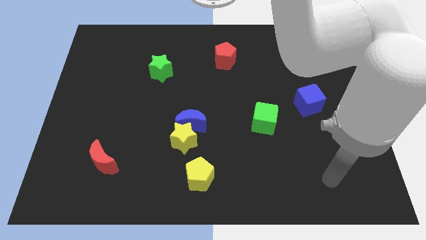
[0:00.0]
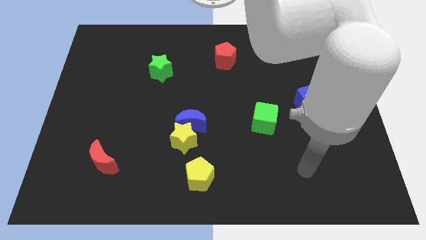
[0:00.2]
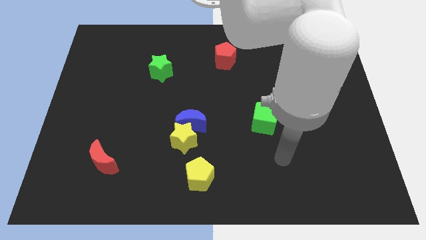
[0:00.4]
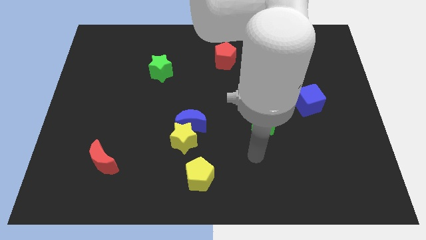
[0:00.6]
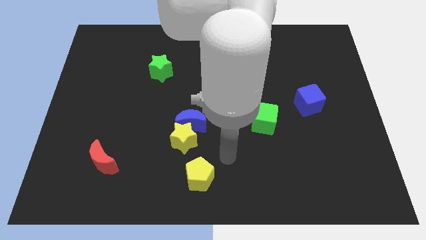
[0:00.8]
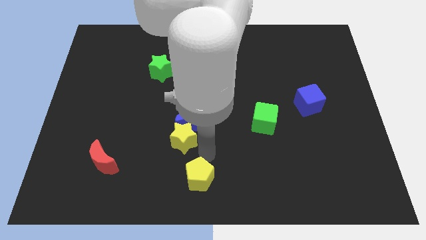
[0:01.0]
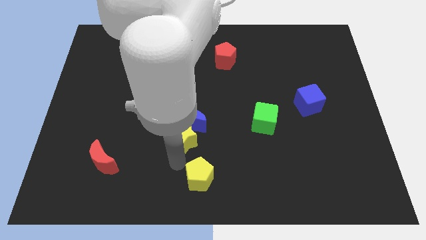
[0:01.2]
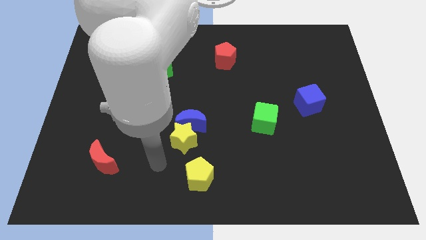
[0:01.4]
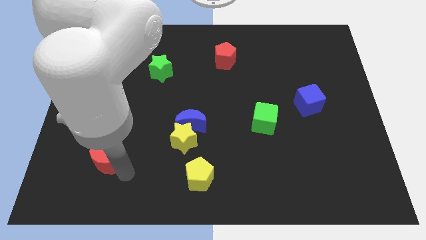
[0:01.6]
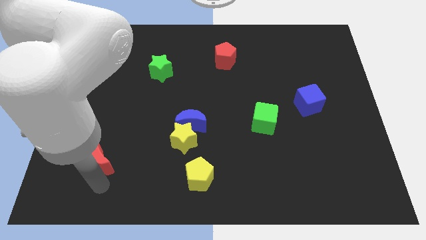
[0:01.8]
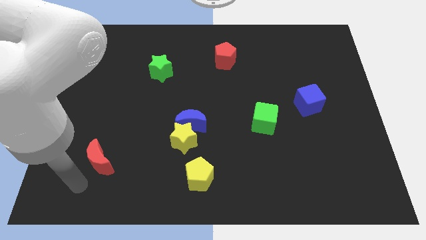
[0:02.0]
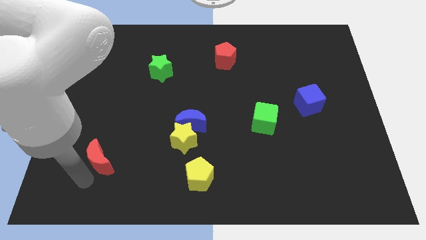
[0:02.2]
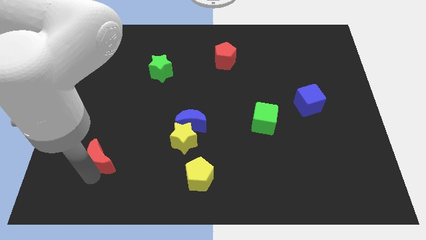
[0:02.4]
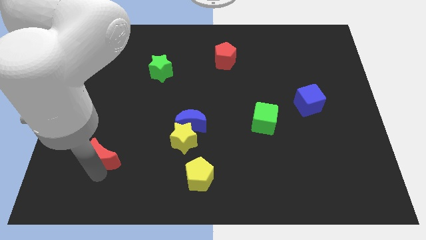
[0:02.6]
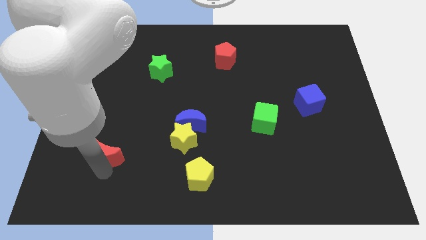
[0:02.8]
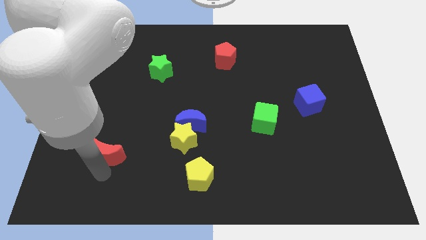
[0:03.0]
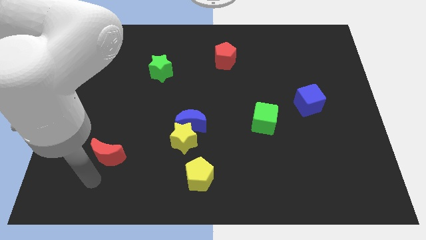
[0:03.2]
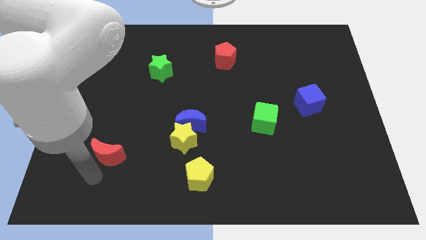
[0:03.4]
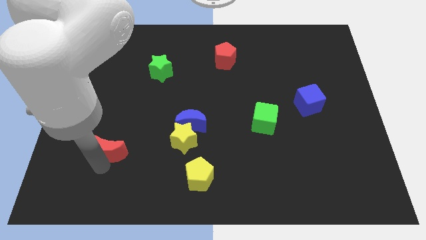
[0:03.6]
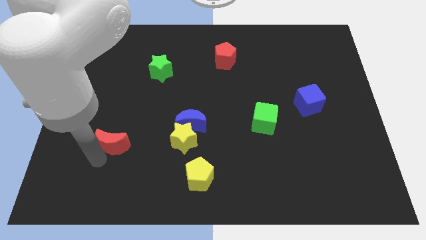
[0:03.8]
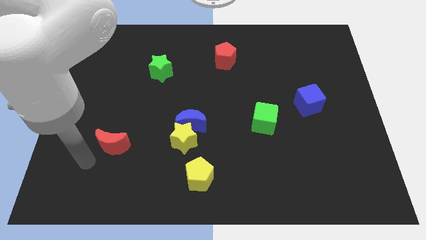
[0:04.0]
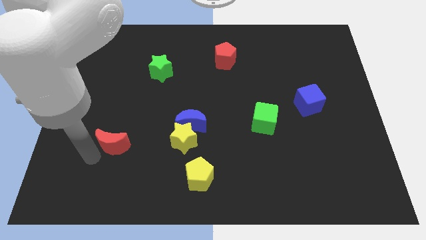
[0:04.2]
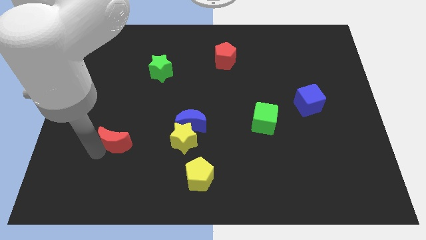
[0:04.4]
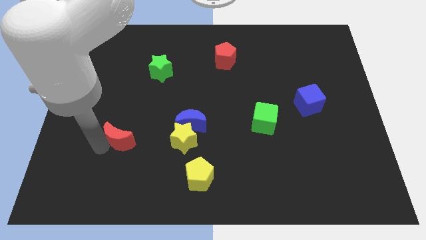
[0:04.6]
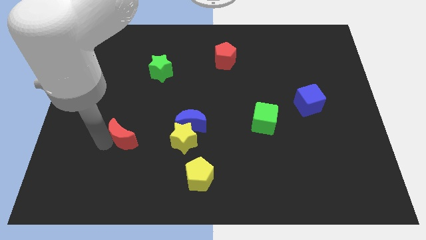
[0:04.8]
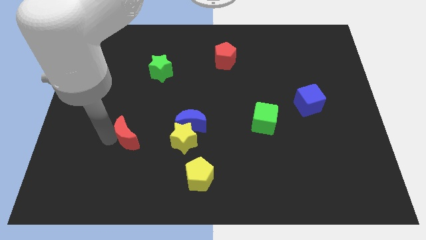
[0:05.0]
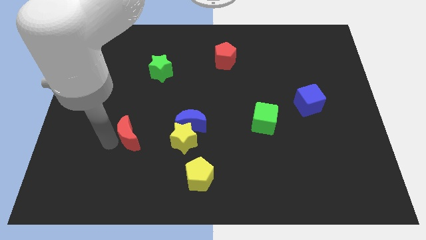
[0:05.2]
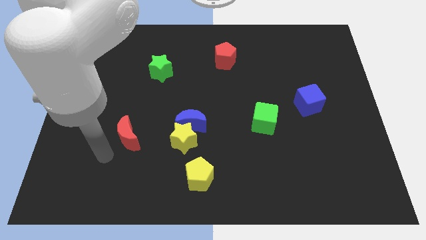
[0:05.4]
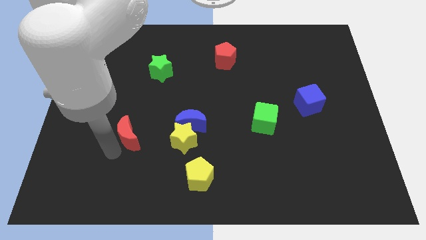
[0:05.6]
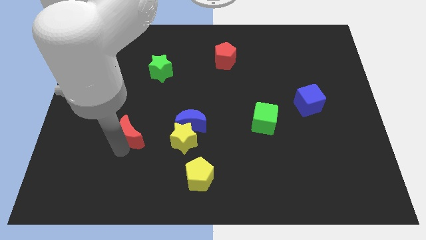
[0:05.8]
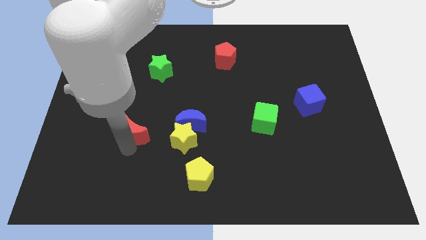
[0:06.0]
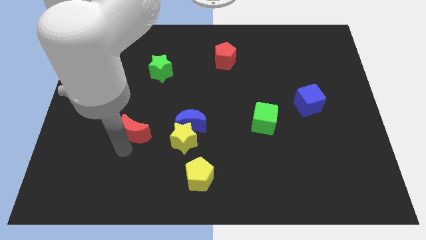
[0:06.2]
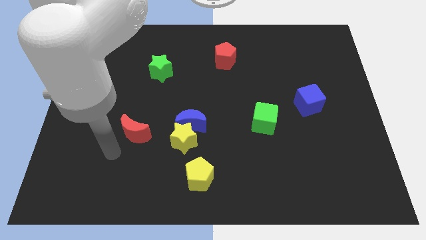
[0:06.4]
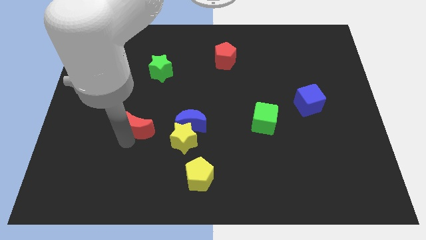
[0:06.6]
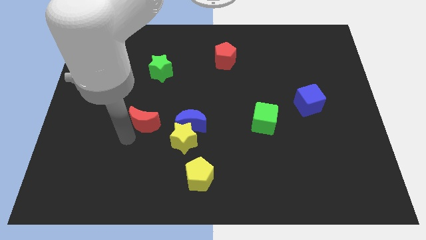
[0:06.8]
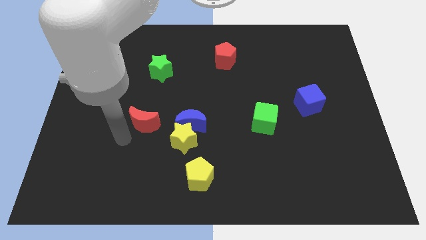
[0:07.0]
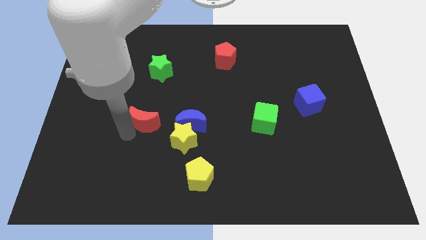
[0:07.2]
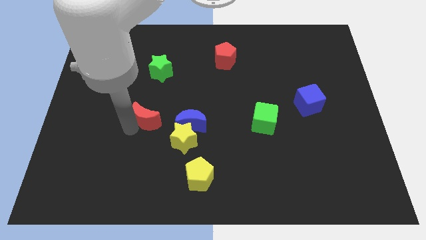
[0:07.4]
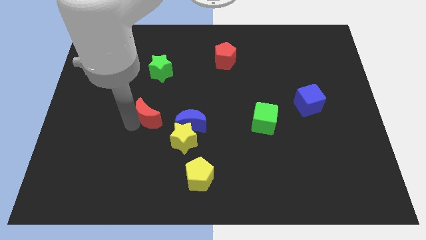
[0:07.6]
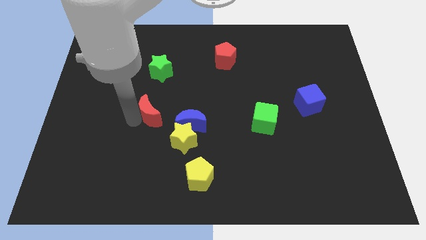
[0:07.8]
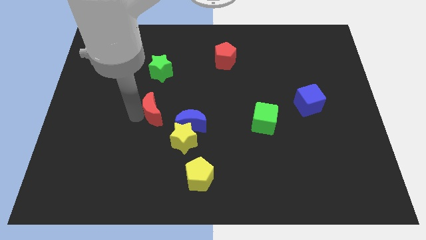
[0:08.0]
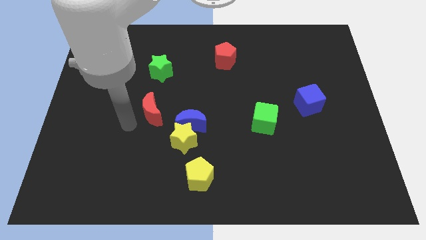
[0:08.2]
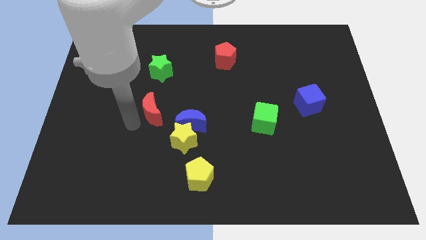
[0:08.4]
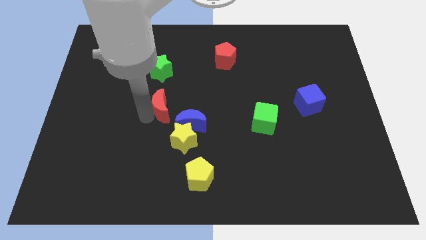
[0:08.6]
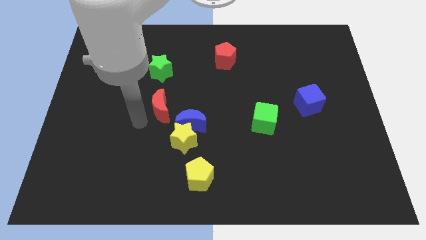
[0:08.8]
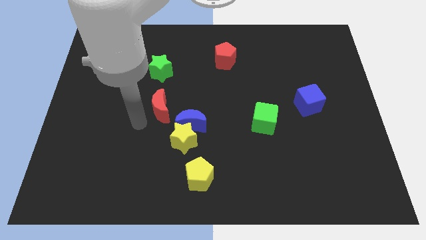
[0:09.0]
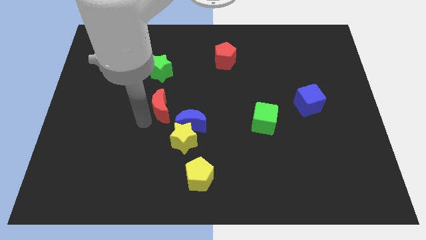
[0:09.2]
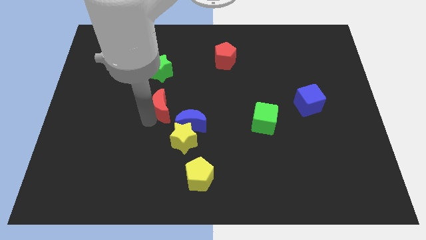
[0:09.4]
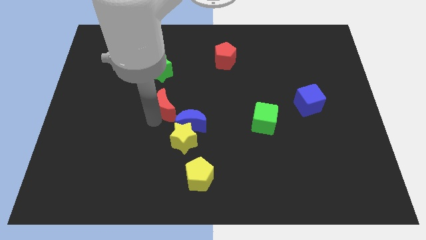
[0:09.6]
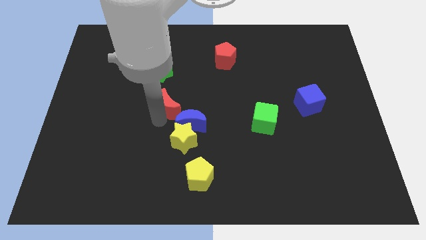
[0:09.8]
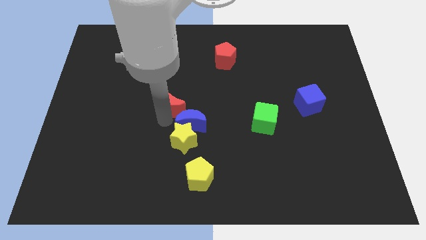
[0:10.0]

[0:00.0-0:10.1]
move the red moon up and then to the right

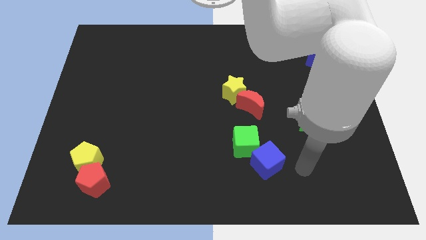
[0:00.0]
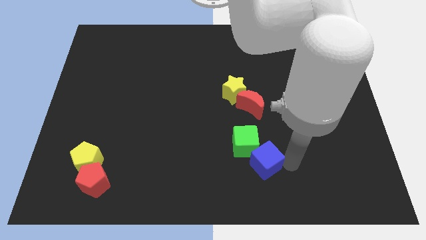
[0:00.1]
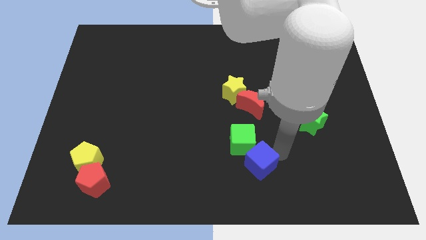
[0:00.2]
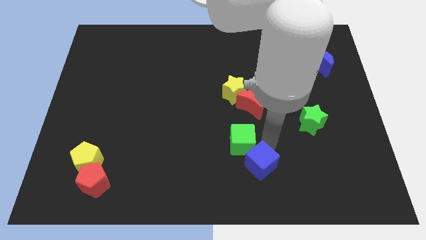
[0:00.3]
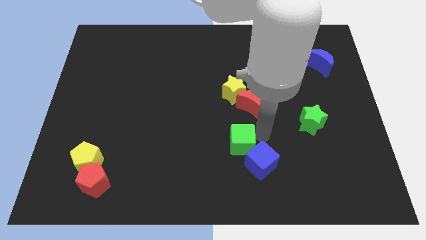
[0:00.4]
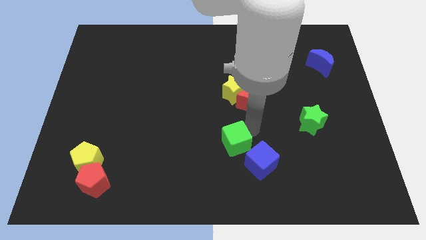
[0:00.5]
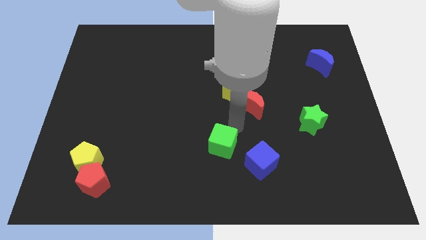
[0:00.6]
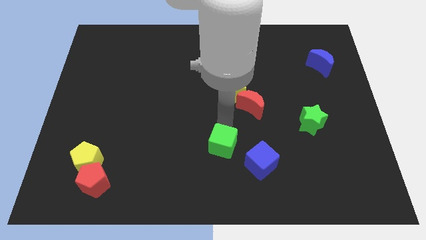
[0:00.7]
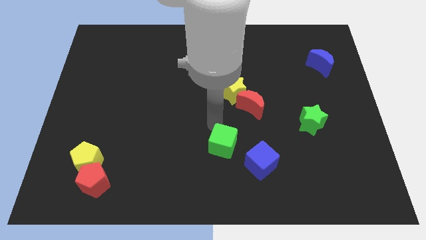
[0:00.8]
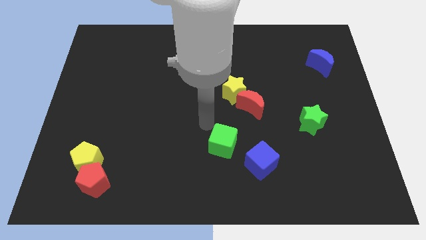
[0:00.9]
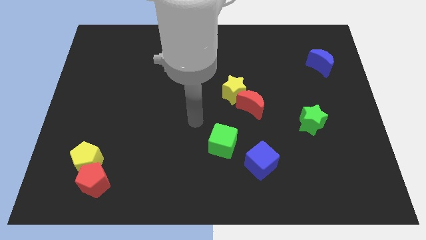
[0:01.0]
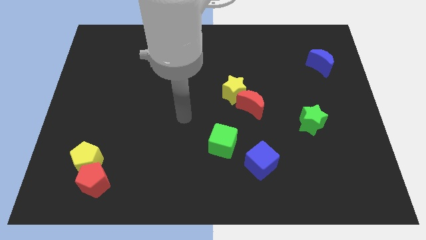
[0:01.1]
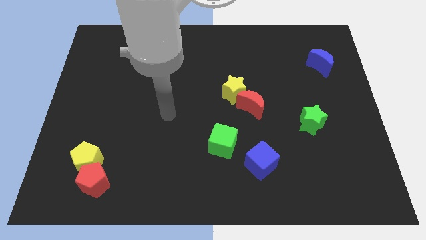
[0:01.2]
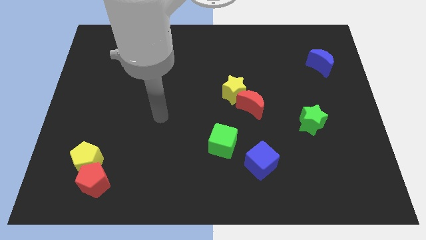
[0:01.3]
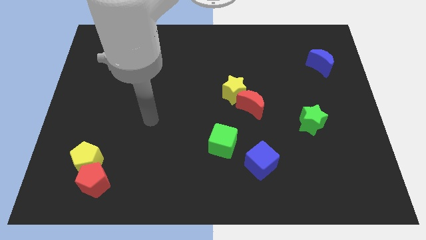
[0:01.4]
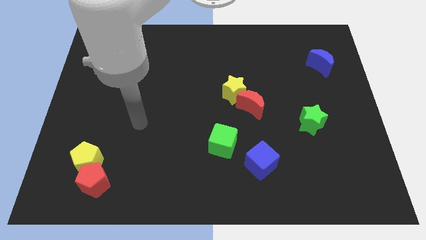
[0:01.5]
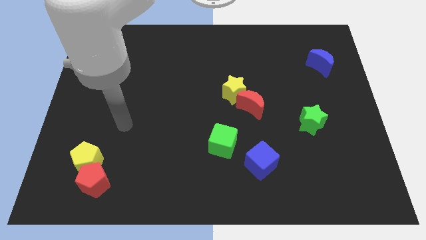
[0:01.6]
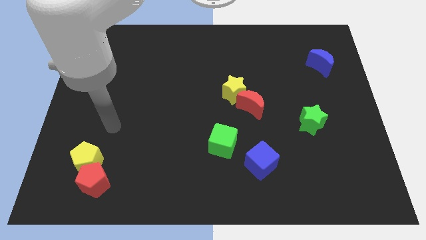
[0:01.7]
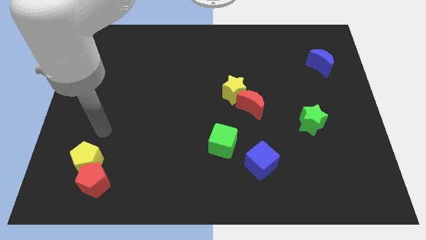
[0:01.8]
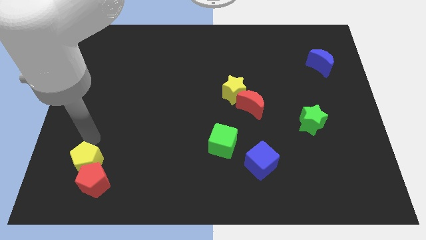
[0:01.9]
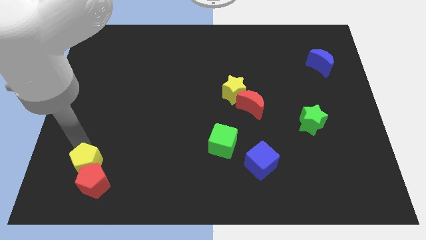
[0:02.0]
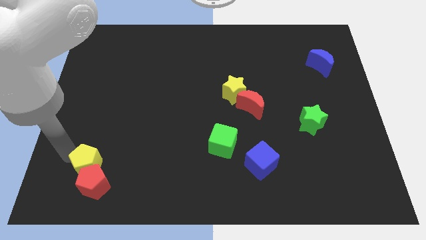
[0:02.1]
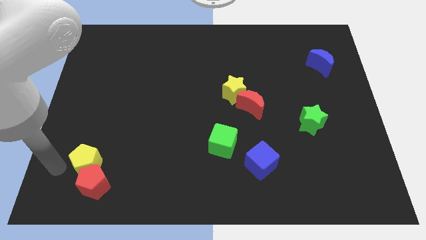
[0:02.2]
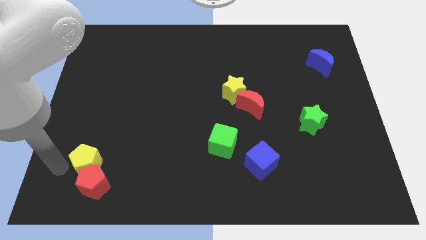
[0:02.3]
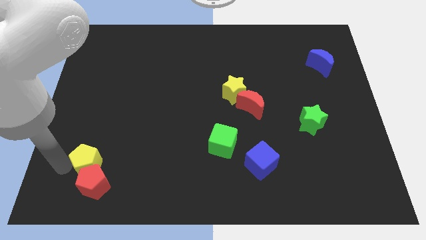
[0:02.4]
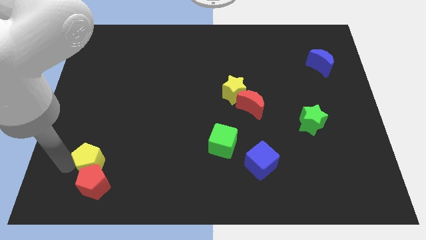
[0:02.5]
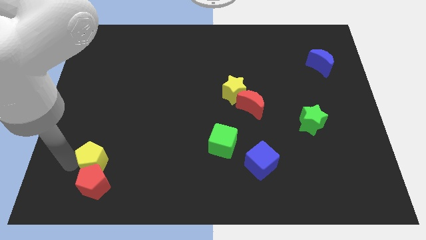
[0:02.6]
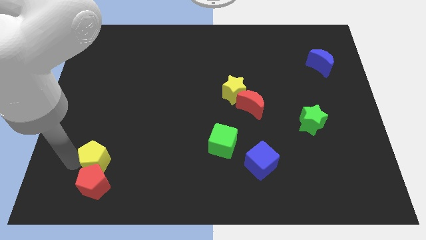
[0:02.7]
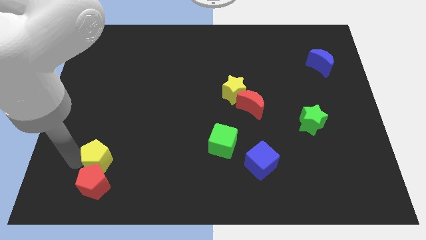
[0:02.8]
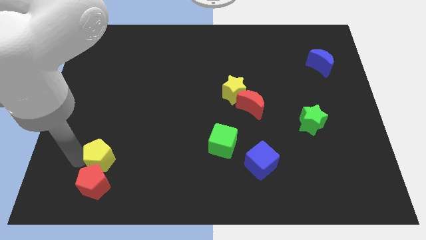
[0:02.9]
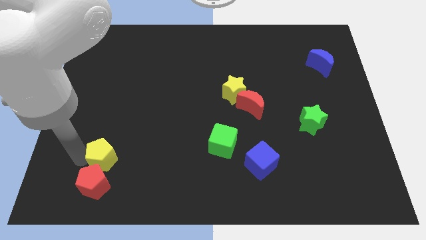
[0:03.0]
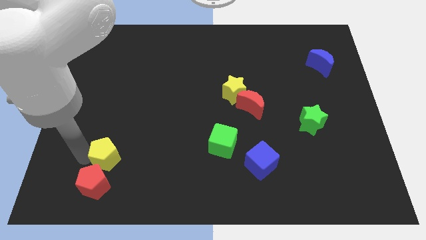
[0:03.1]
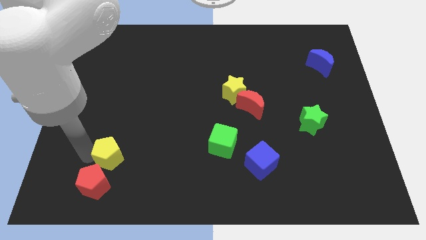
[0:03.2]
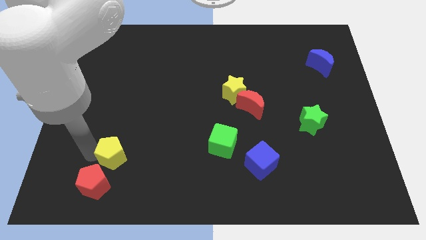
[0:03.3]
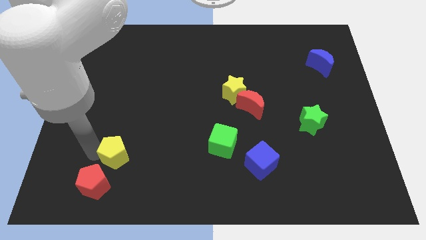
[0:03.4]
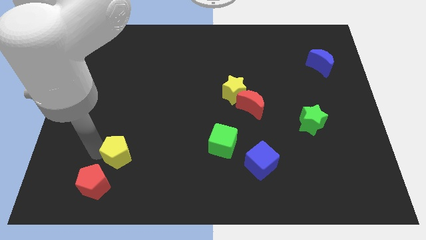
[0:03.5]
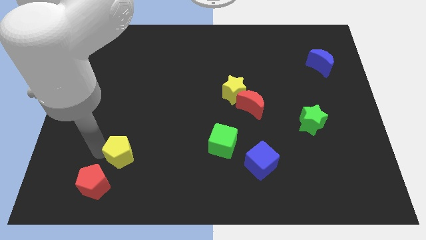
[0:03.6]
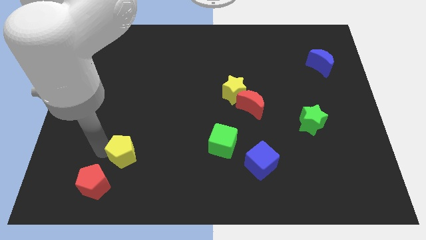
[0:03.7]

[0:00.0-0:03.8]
slightly push the yellow pentagon to the right
